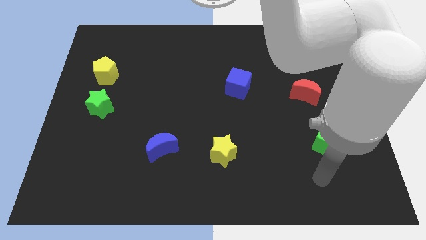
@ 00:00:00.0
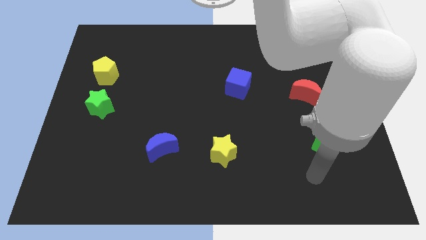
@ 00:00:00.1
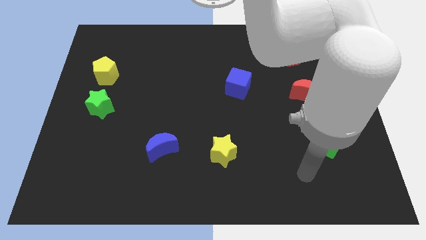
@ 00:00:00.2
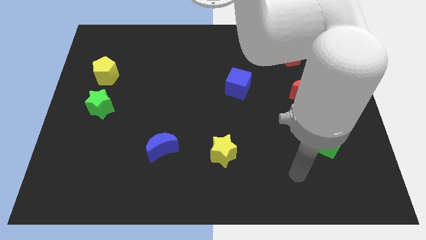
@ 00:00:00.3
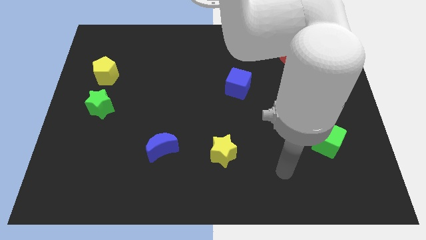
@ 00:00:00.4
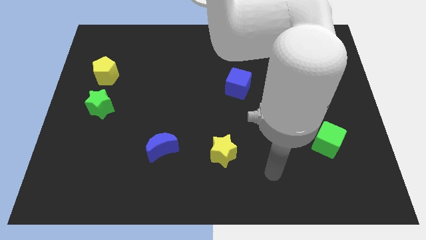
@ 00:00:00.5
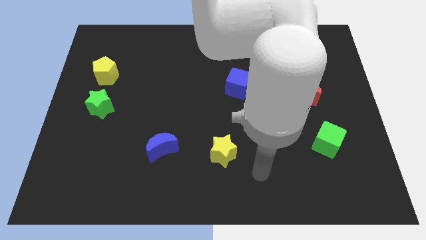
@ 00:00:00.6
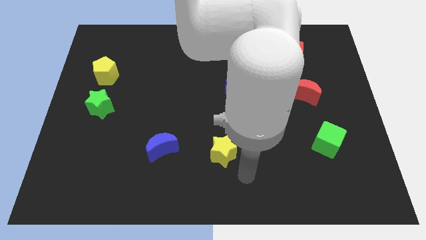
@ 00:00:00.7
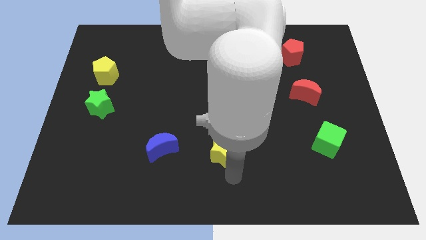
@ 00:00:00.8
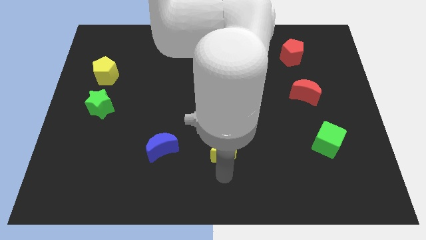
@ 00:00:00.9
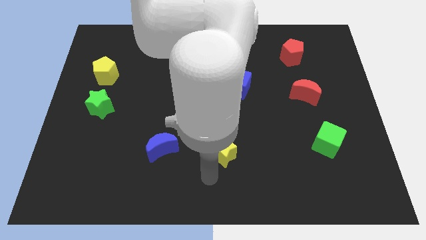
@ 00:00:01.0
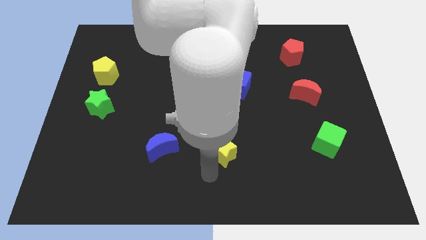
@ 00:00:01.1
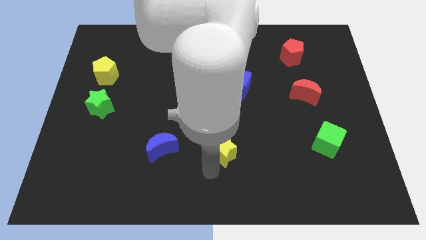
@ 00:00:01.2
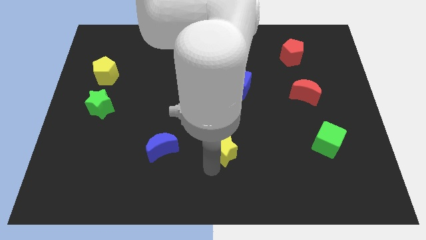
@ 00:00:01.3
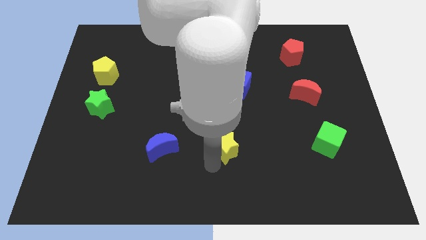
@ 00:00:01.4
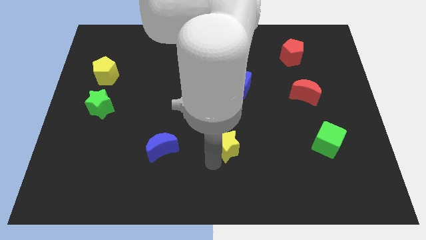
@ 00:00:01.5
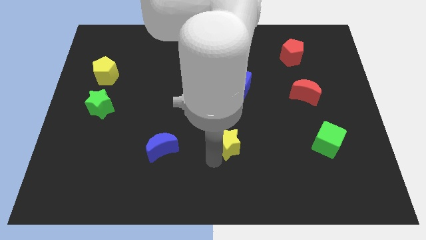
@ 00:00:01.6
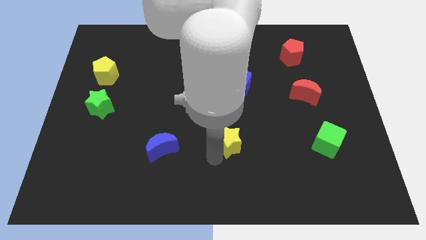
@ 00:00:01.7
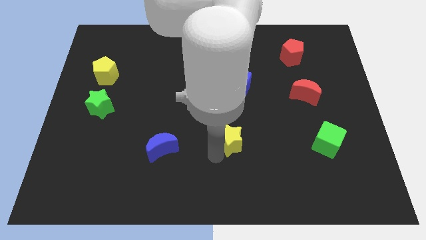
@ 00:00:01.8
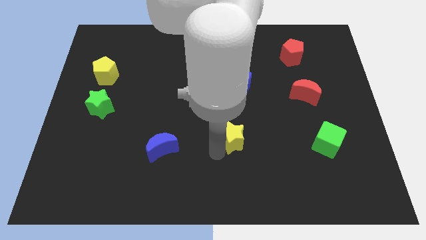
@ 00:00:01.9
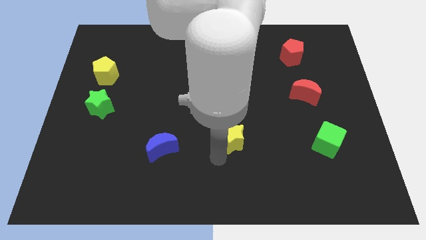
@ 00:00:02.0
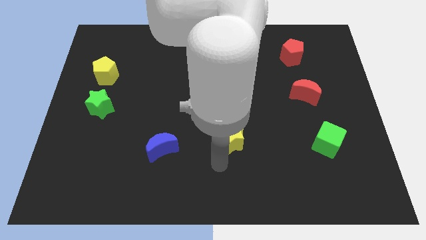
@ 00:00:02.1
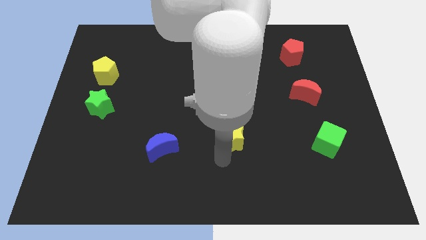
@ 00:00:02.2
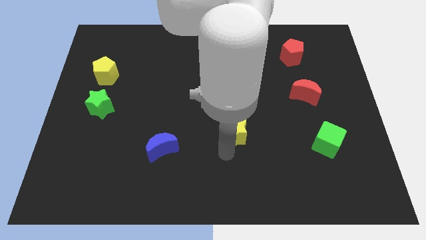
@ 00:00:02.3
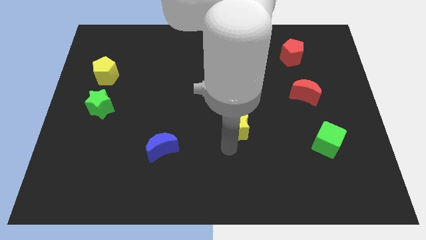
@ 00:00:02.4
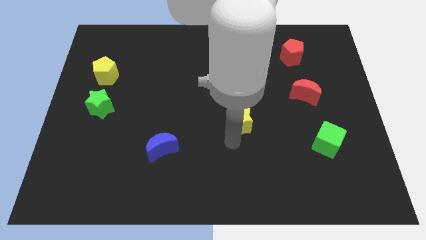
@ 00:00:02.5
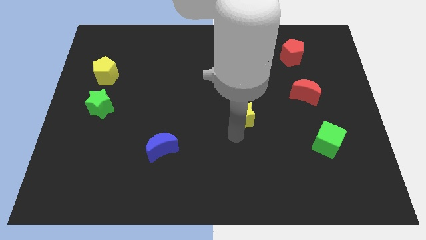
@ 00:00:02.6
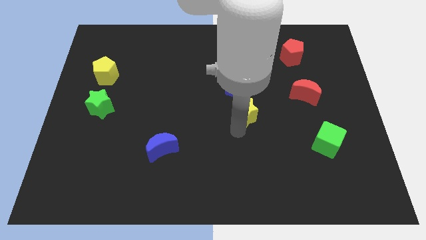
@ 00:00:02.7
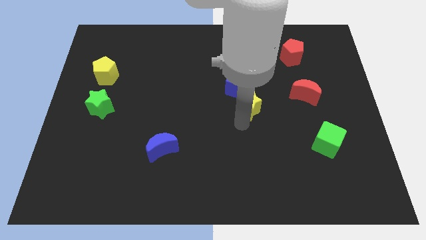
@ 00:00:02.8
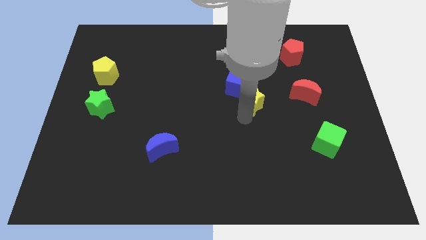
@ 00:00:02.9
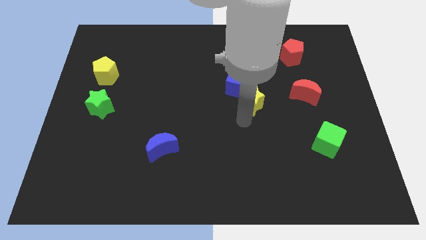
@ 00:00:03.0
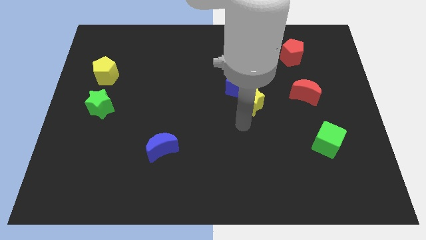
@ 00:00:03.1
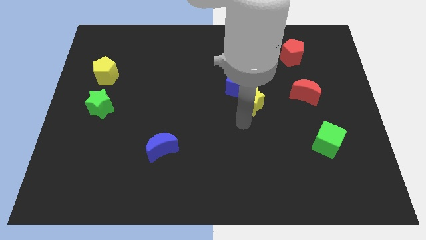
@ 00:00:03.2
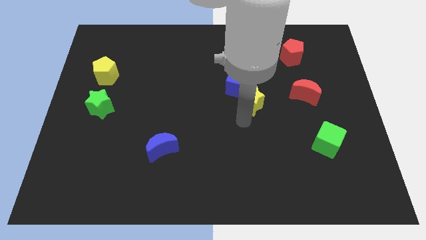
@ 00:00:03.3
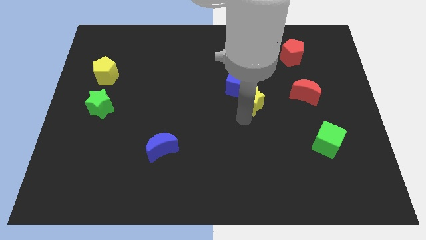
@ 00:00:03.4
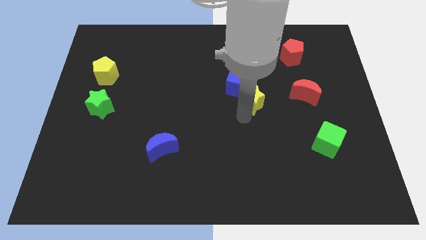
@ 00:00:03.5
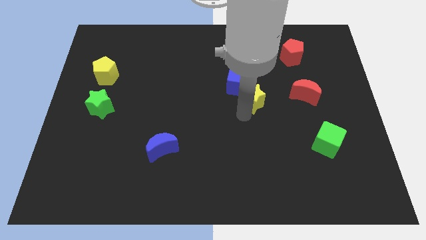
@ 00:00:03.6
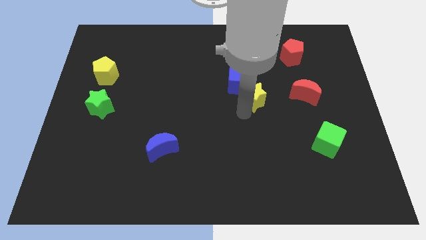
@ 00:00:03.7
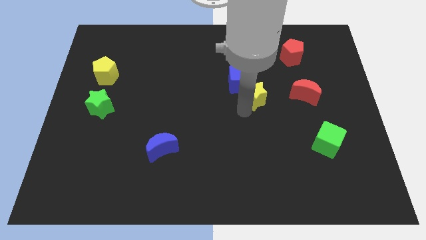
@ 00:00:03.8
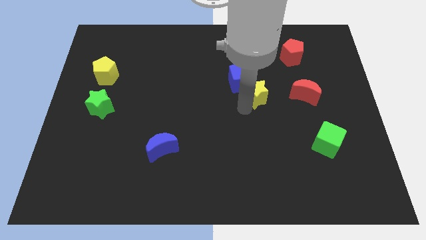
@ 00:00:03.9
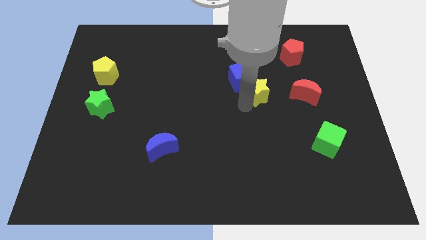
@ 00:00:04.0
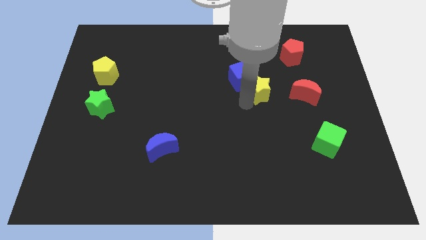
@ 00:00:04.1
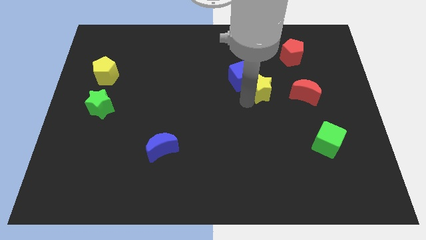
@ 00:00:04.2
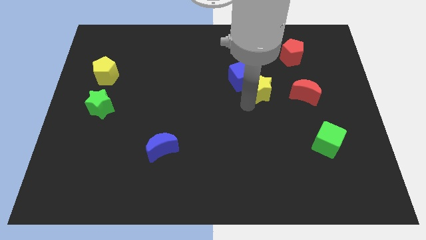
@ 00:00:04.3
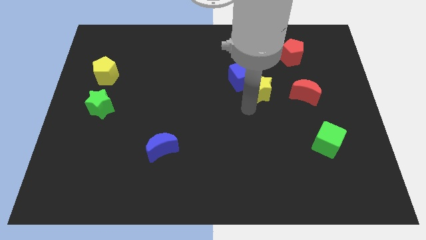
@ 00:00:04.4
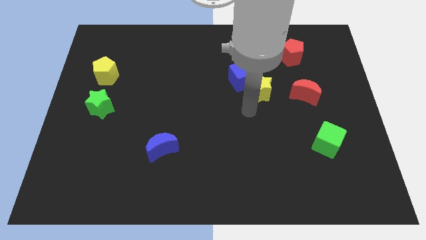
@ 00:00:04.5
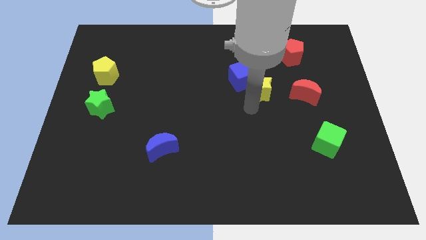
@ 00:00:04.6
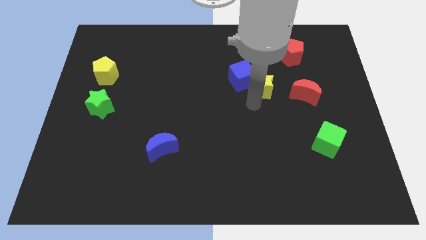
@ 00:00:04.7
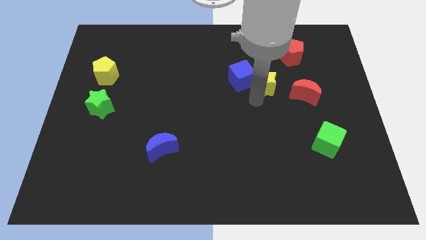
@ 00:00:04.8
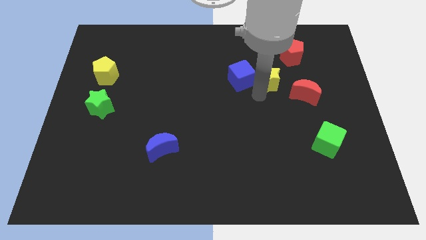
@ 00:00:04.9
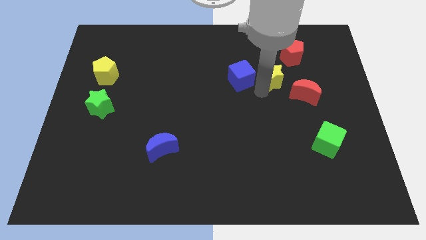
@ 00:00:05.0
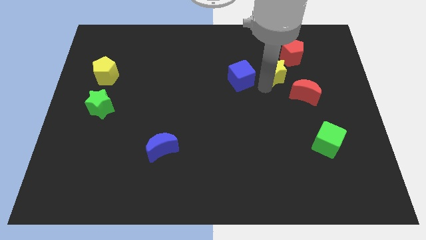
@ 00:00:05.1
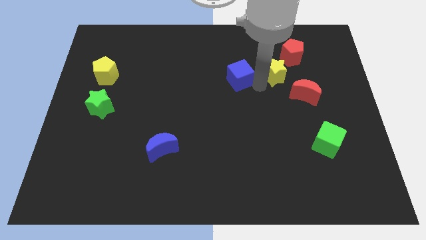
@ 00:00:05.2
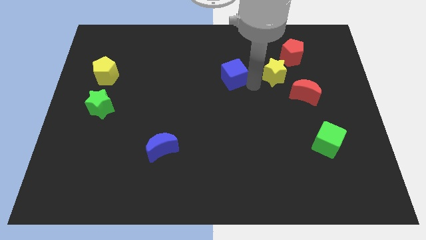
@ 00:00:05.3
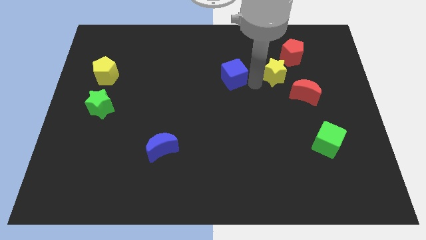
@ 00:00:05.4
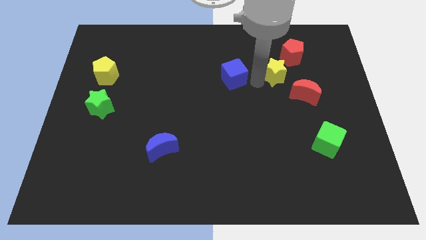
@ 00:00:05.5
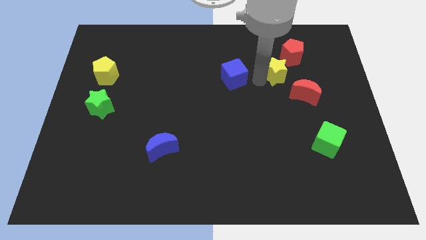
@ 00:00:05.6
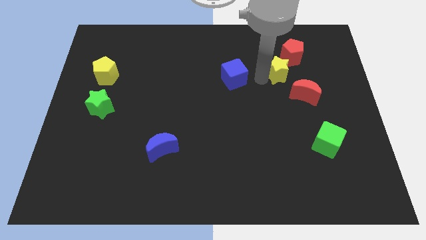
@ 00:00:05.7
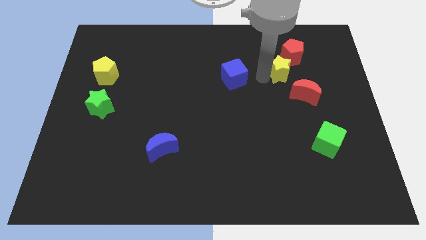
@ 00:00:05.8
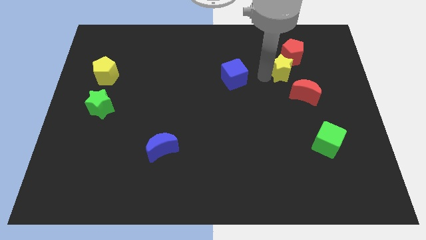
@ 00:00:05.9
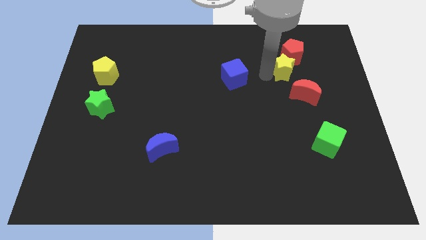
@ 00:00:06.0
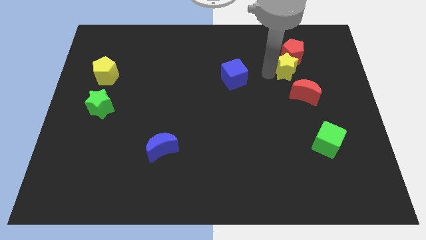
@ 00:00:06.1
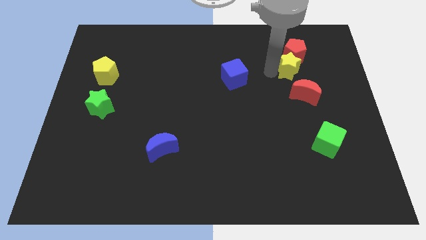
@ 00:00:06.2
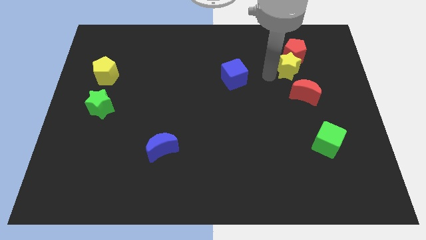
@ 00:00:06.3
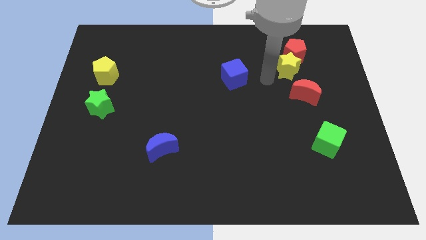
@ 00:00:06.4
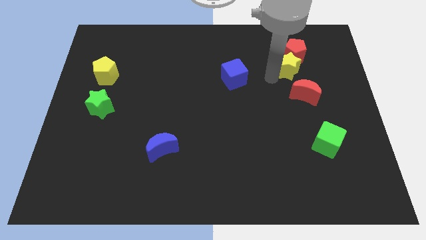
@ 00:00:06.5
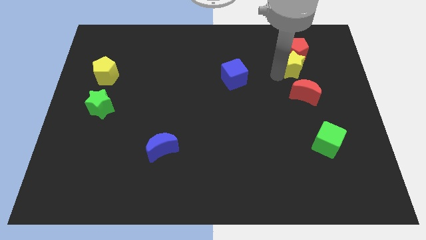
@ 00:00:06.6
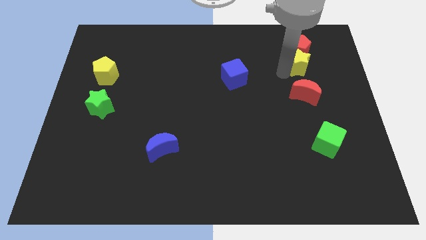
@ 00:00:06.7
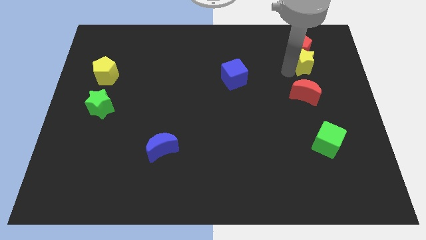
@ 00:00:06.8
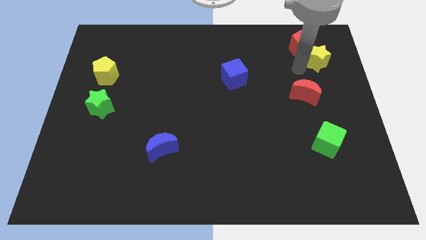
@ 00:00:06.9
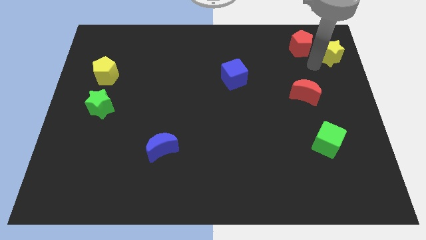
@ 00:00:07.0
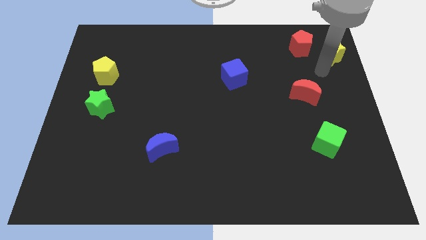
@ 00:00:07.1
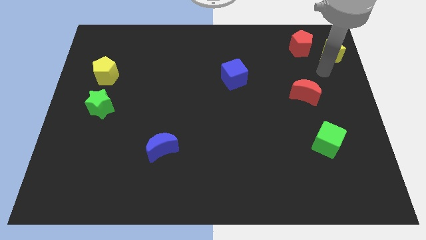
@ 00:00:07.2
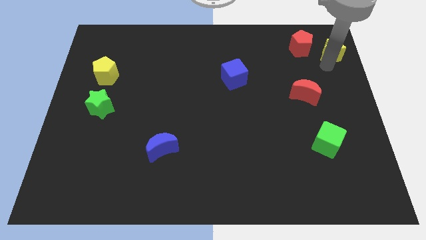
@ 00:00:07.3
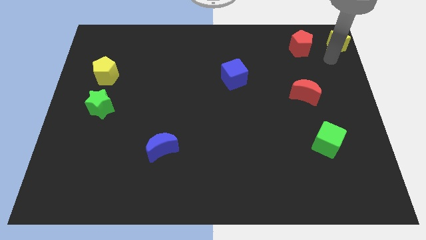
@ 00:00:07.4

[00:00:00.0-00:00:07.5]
push the yellow star to the top right
